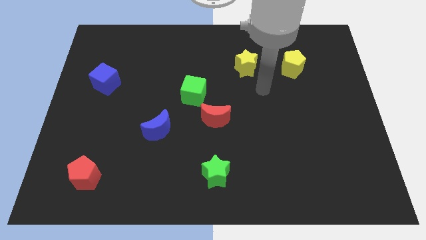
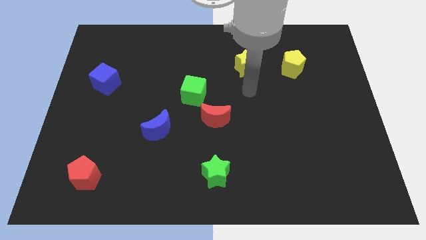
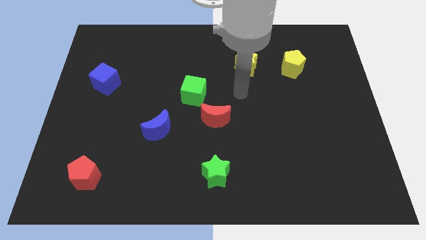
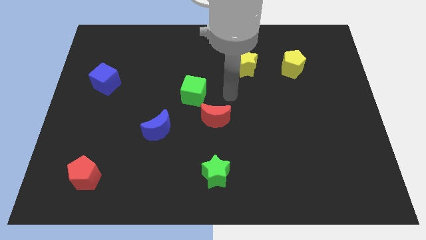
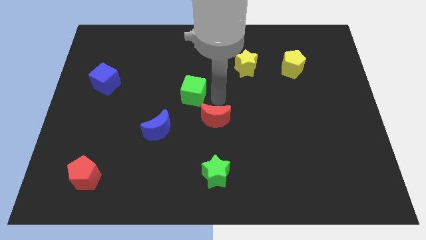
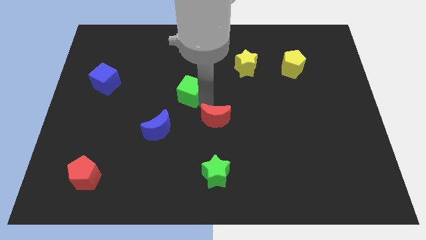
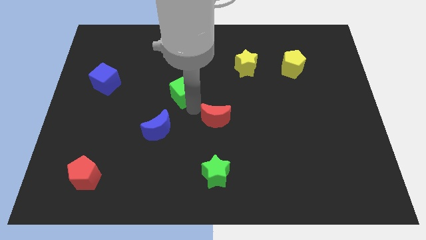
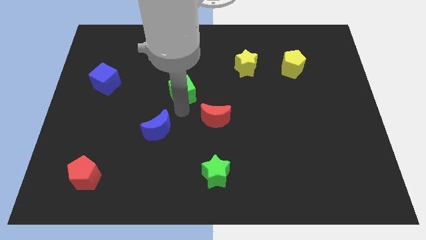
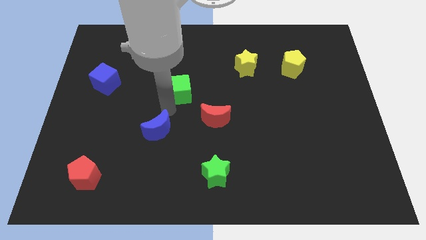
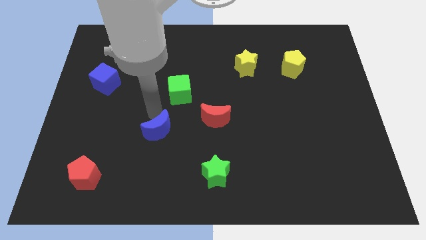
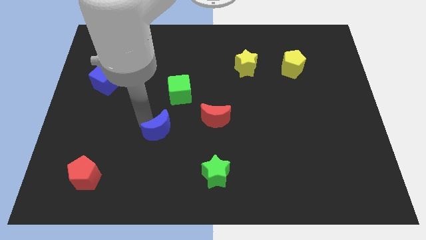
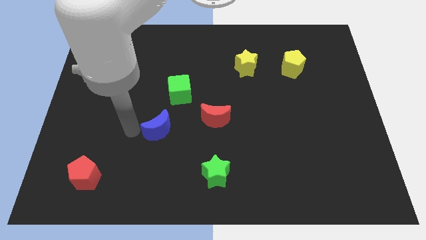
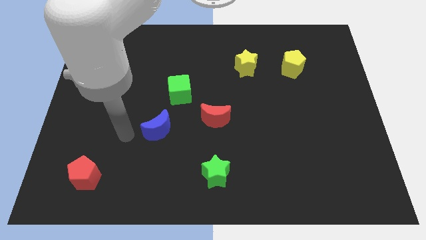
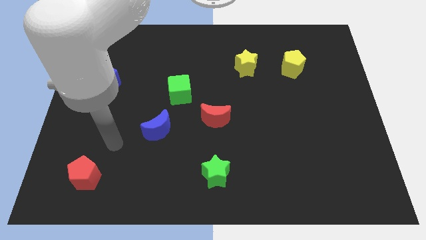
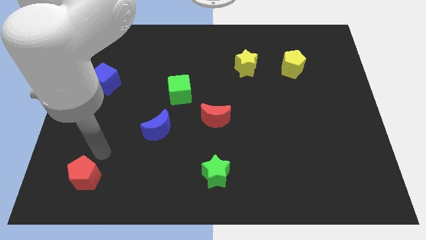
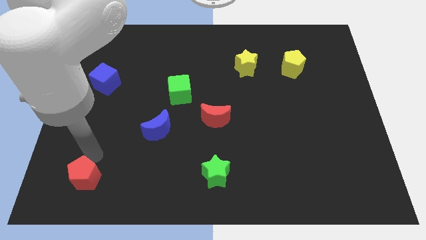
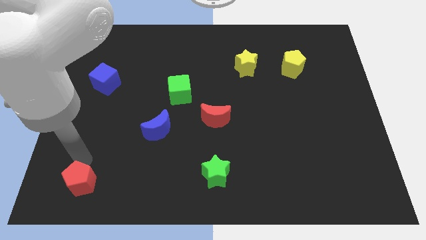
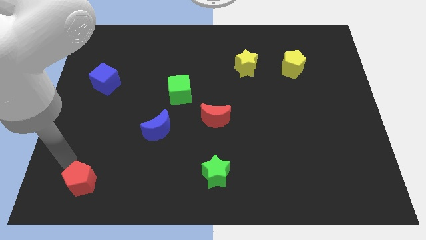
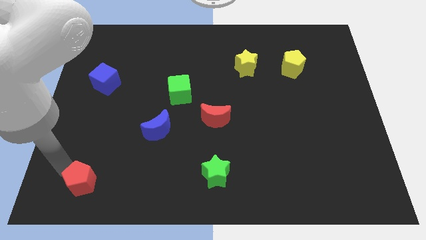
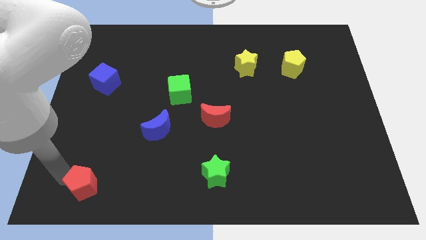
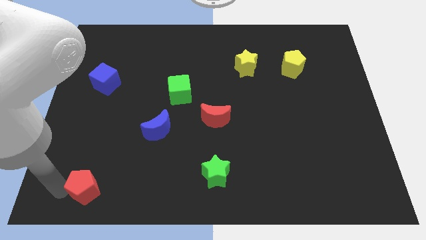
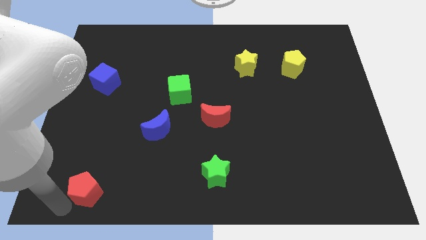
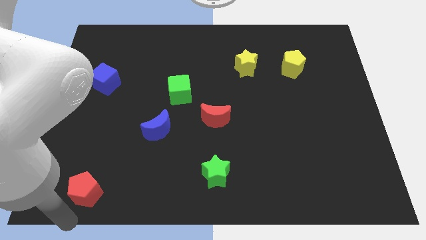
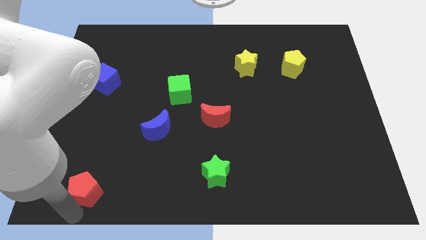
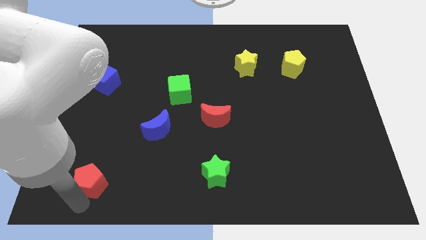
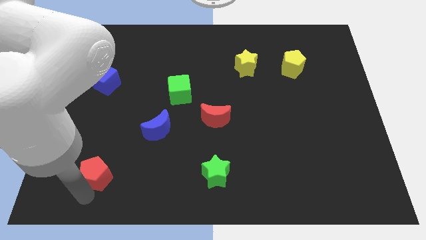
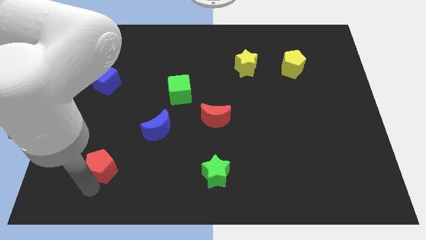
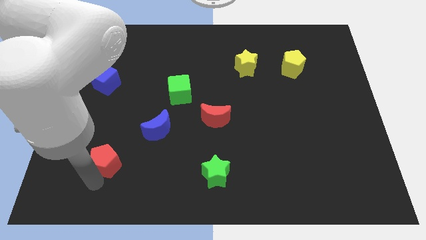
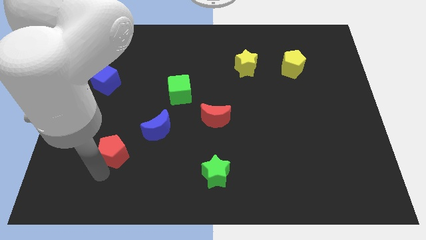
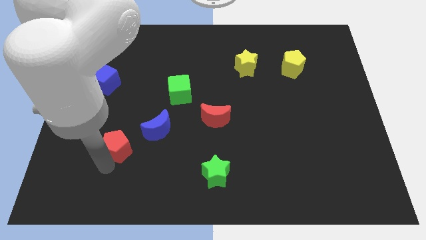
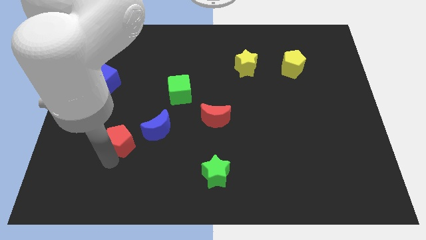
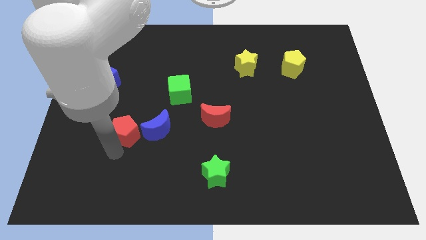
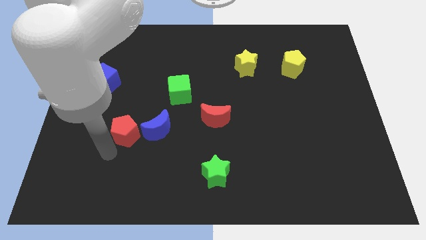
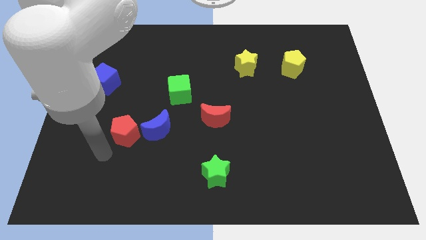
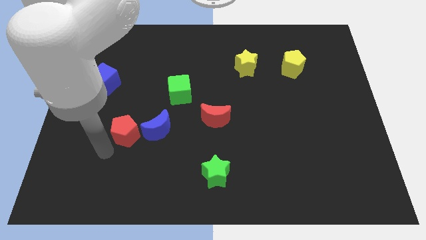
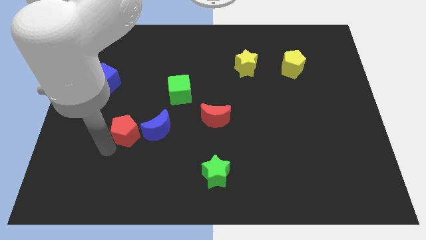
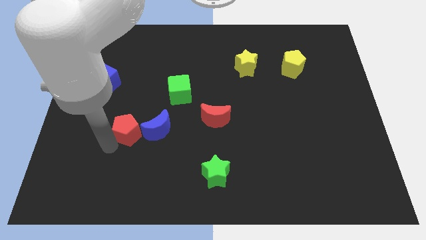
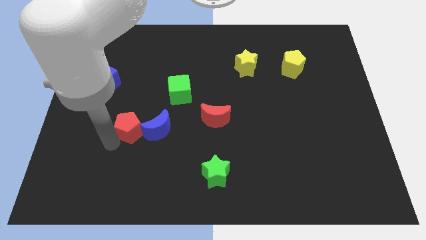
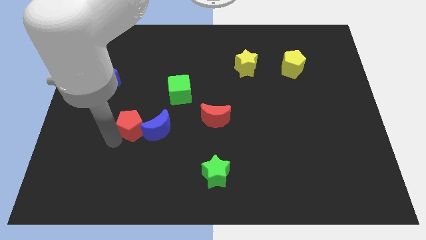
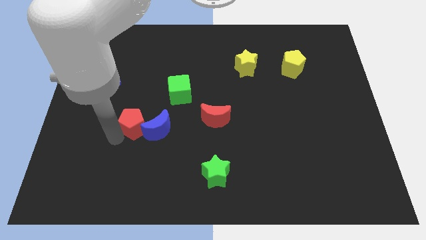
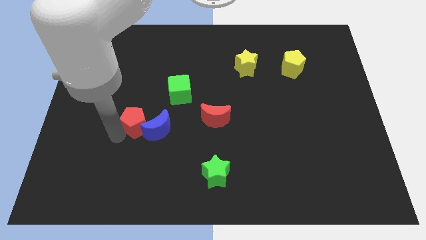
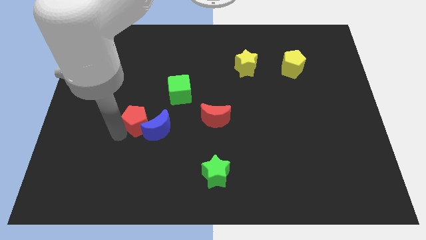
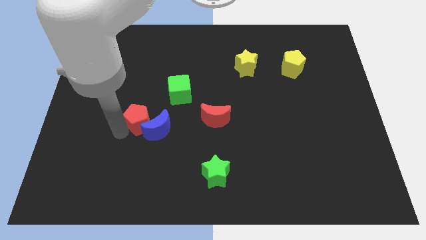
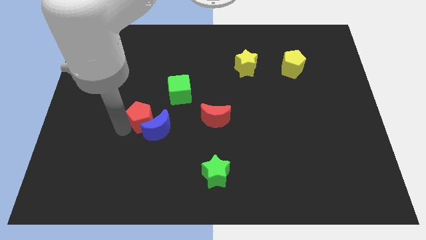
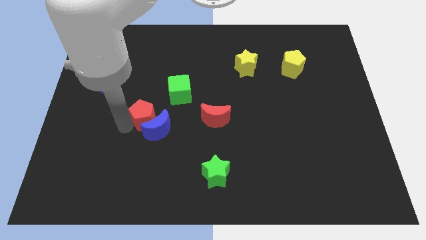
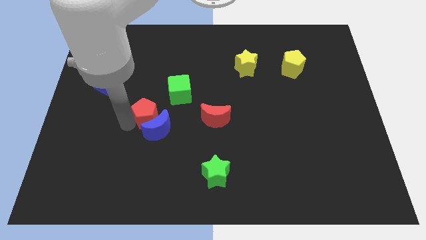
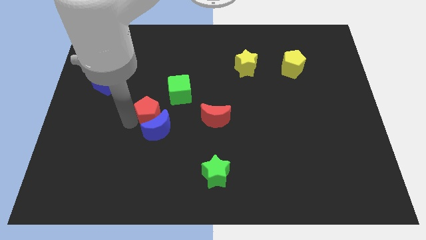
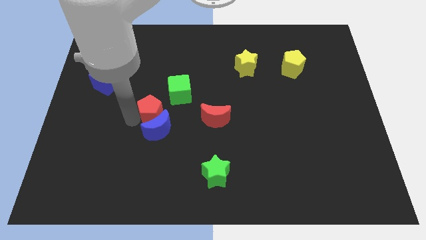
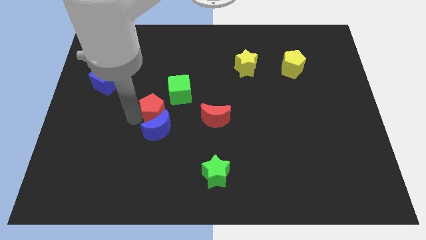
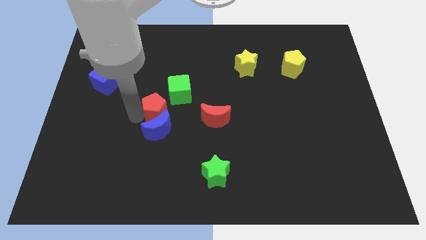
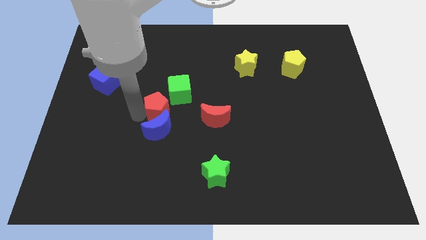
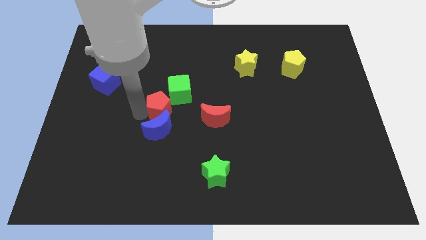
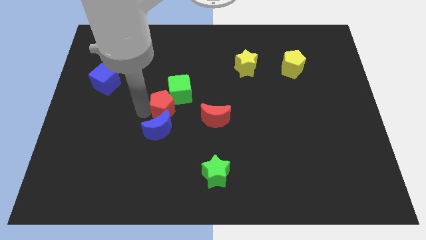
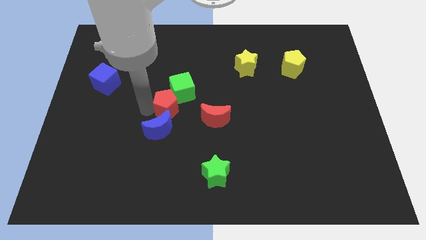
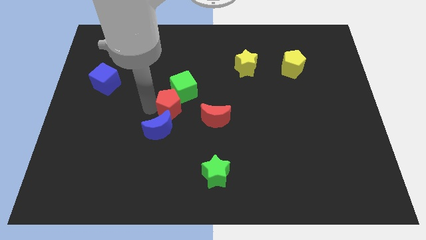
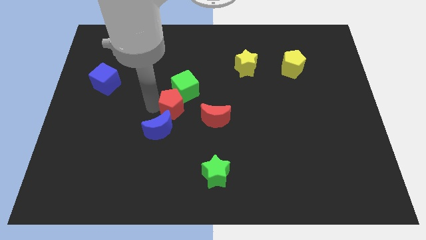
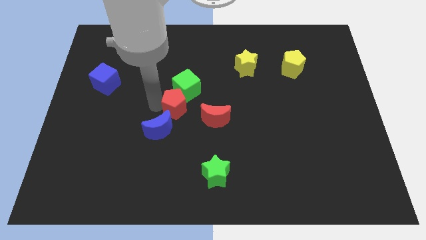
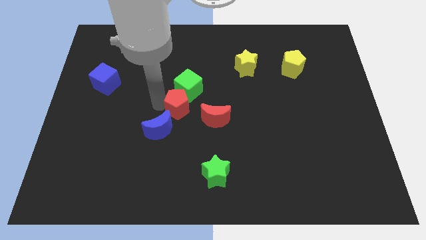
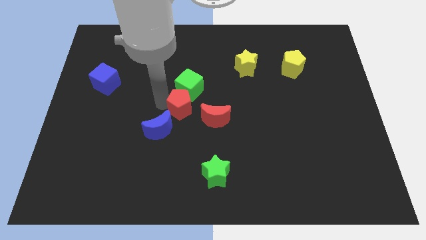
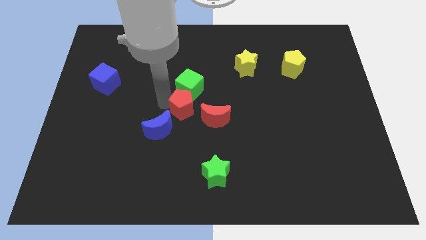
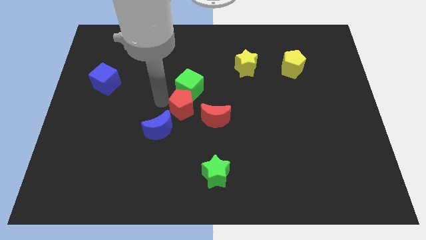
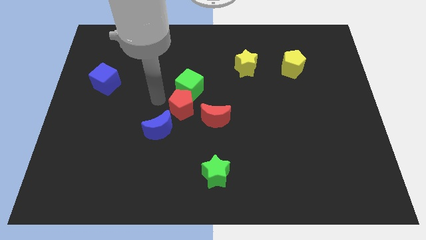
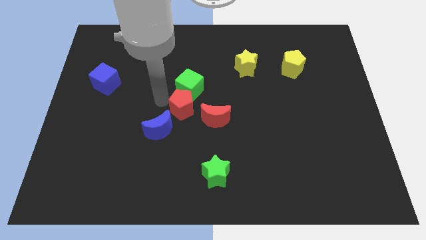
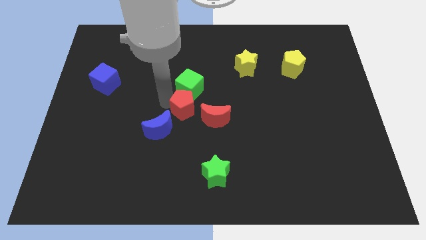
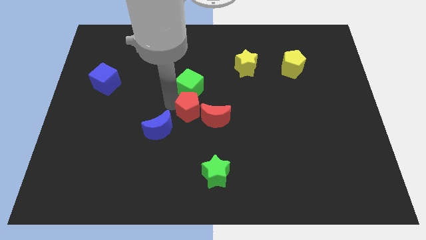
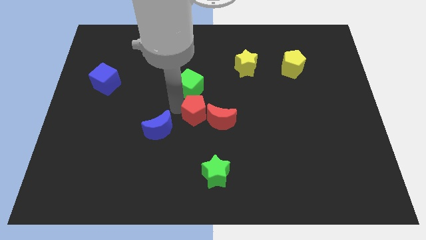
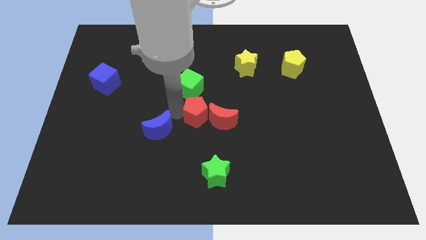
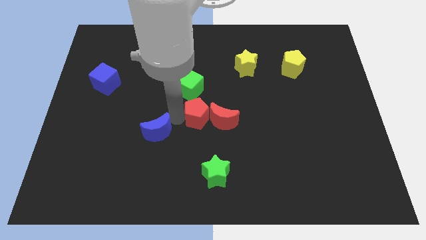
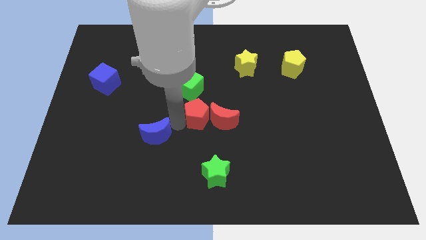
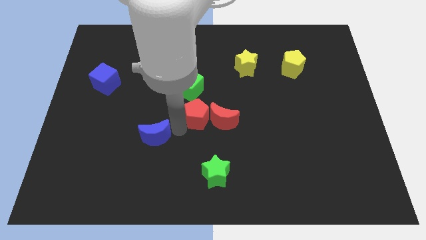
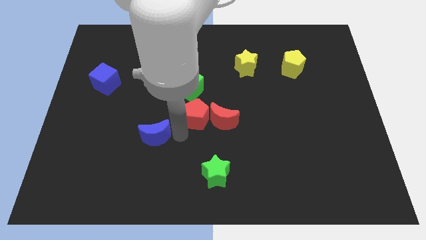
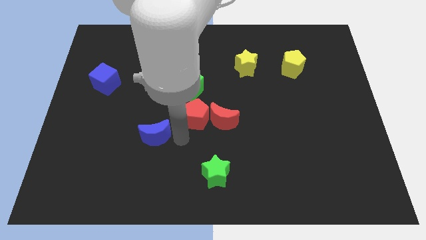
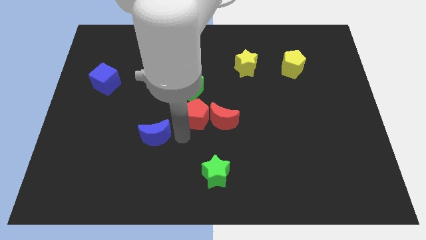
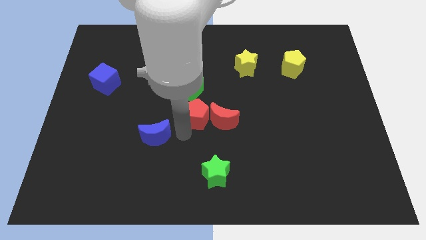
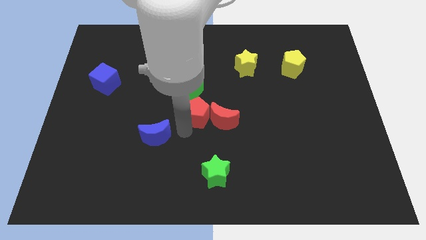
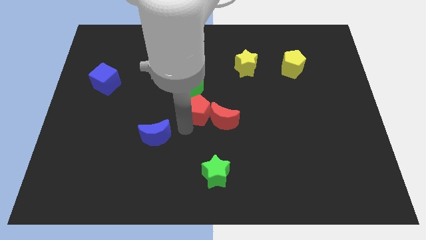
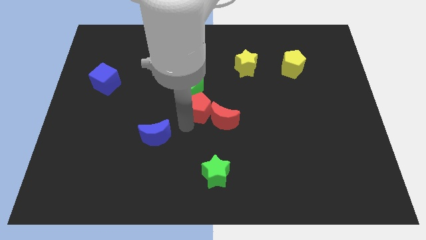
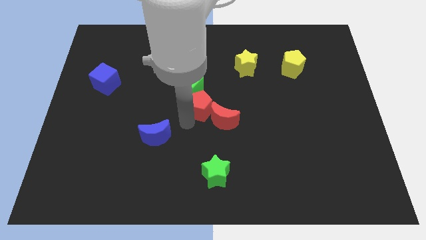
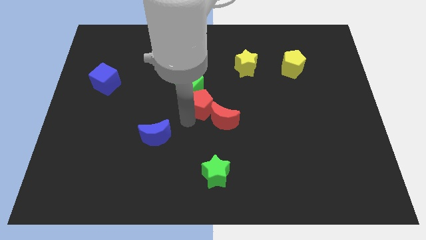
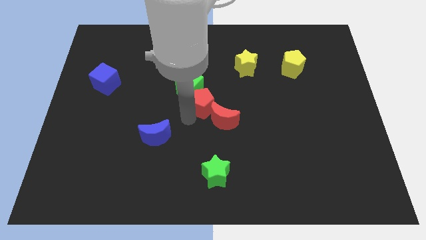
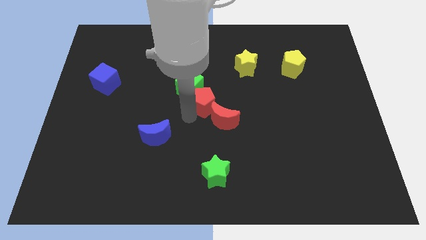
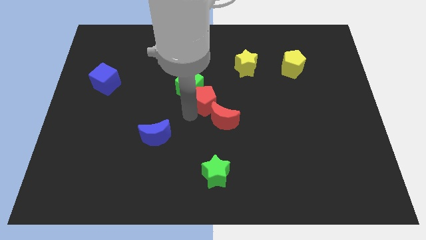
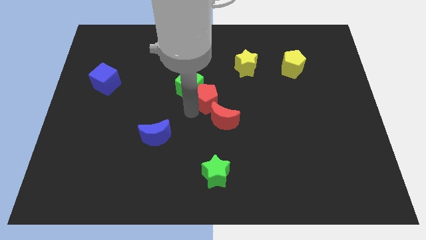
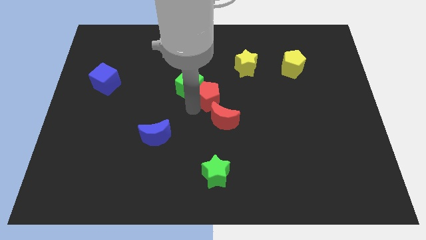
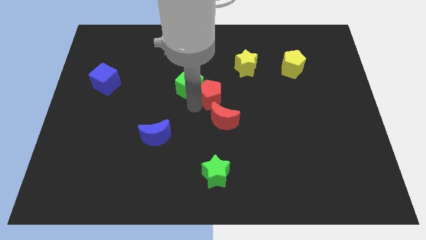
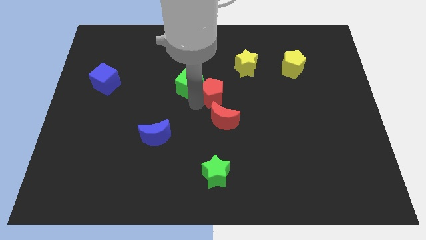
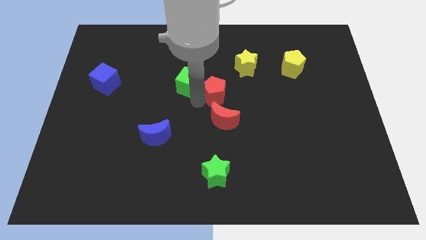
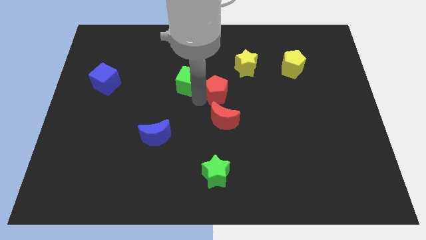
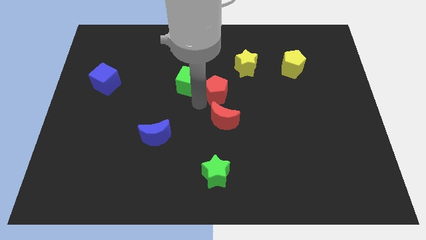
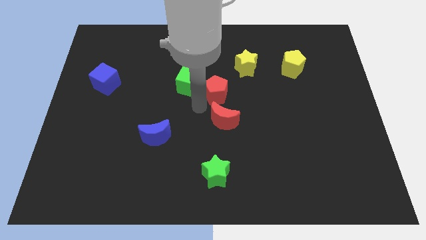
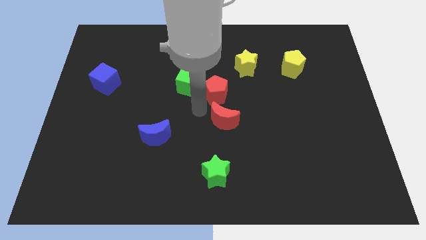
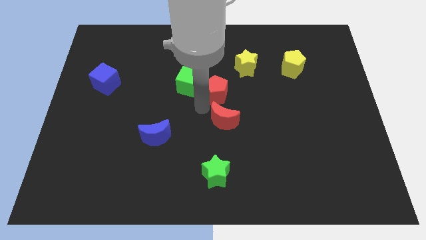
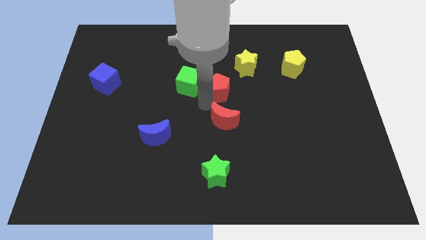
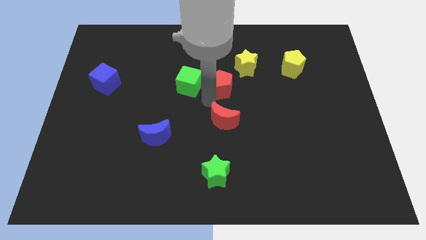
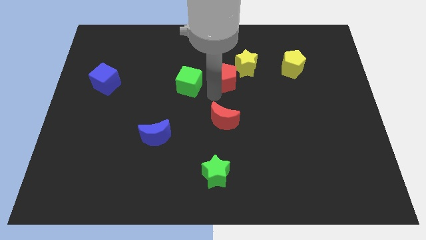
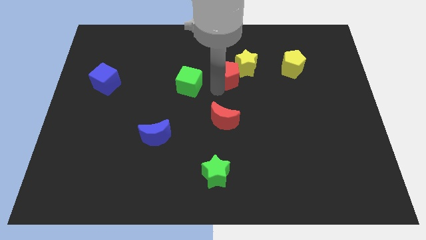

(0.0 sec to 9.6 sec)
slide the red pentagon next to the yellow star
